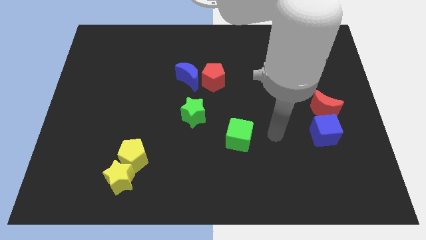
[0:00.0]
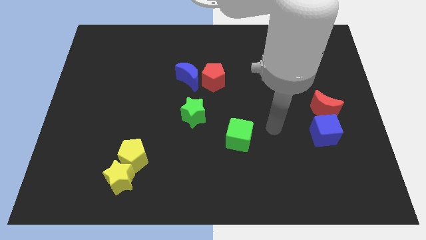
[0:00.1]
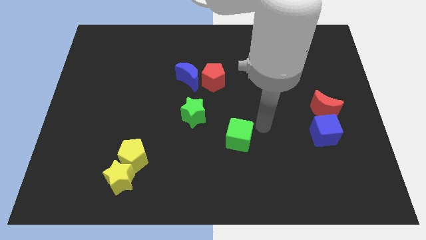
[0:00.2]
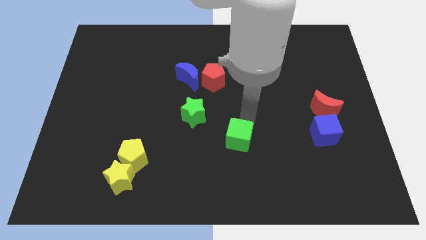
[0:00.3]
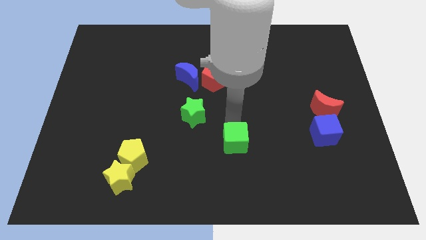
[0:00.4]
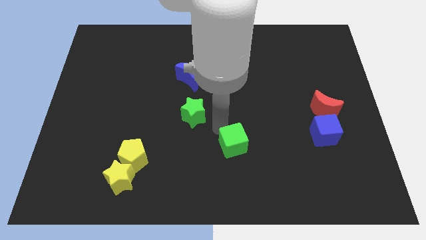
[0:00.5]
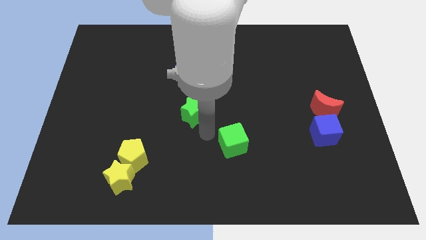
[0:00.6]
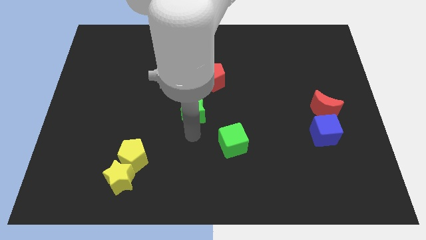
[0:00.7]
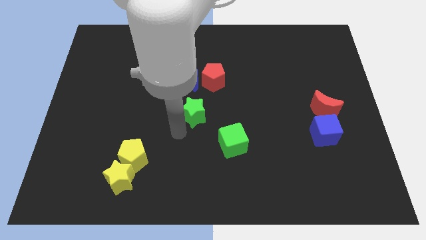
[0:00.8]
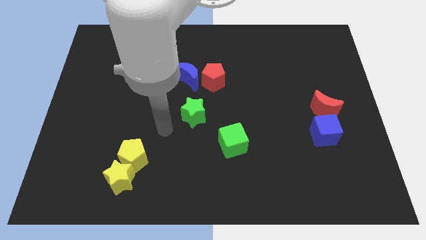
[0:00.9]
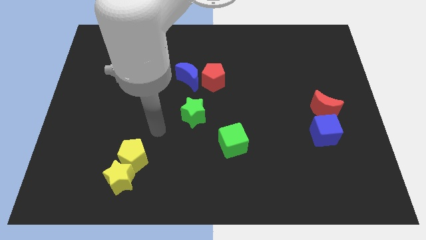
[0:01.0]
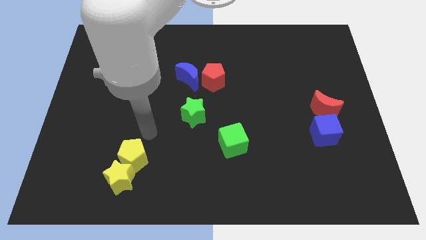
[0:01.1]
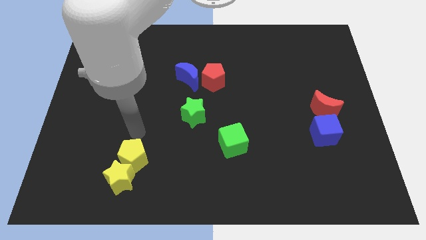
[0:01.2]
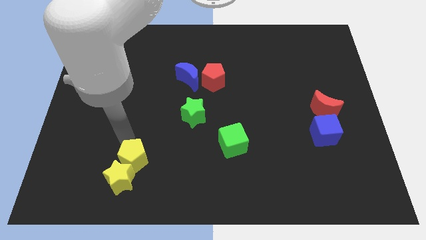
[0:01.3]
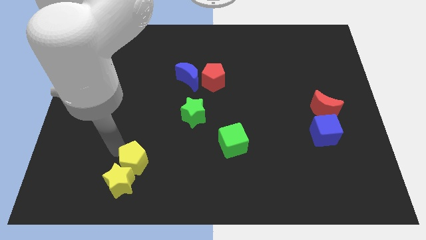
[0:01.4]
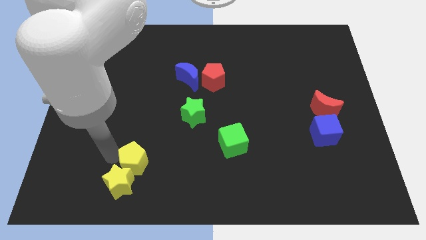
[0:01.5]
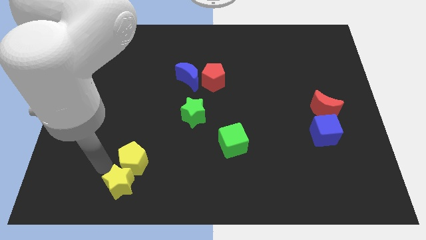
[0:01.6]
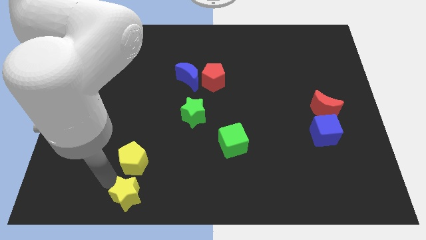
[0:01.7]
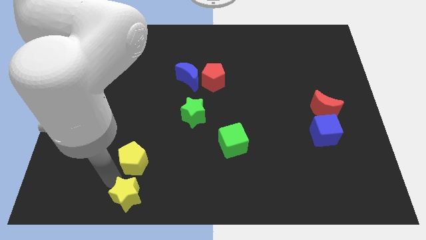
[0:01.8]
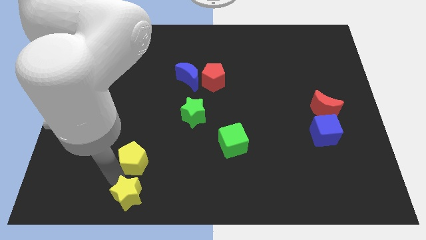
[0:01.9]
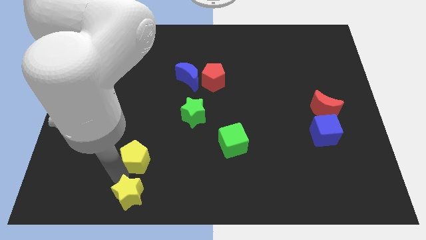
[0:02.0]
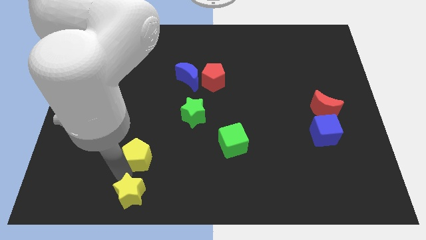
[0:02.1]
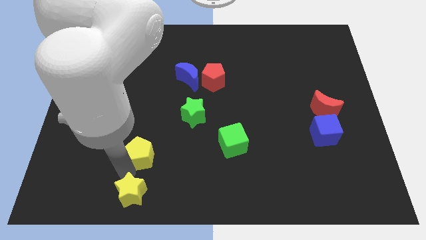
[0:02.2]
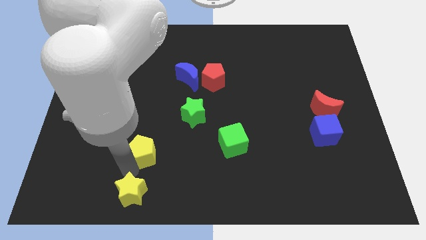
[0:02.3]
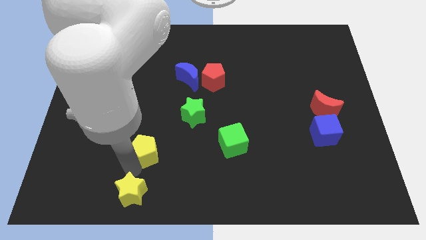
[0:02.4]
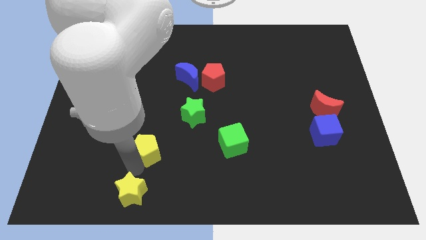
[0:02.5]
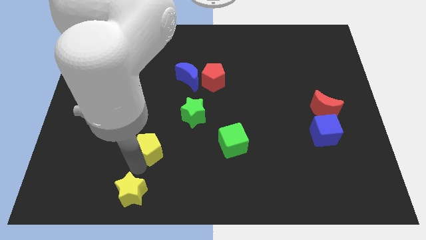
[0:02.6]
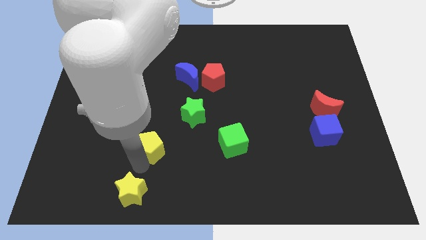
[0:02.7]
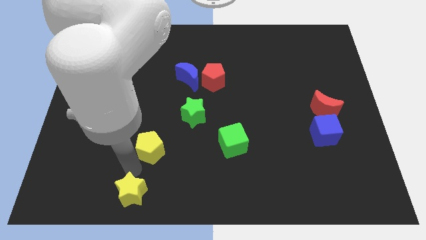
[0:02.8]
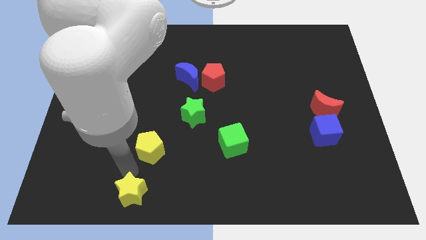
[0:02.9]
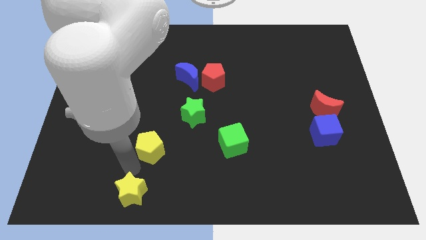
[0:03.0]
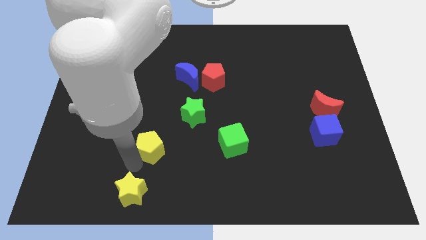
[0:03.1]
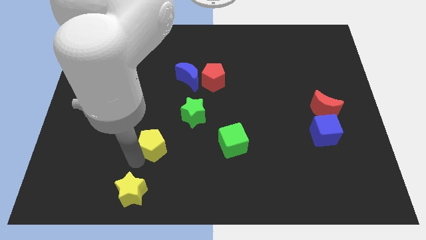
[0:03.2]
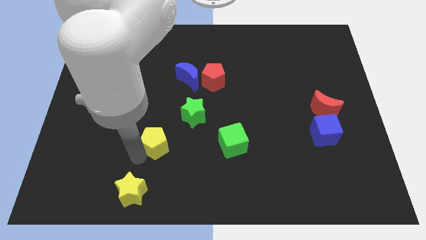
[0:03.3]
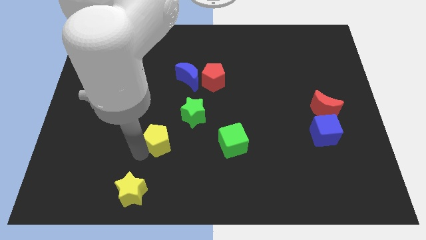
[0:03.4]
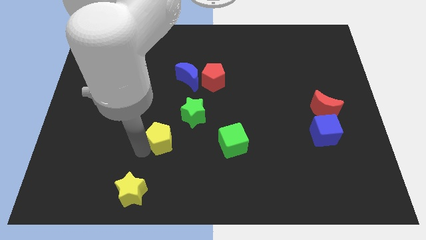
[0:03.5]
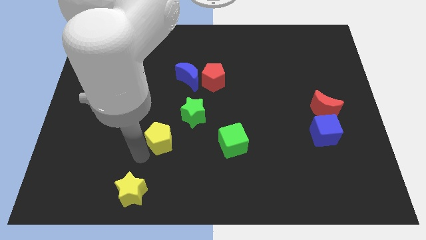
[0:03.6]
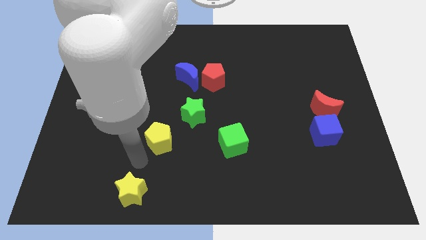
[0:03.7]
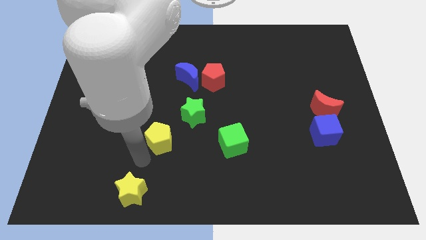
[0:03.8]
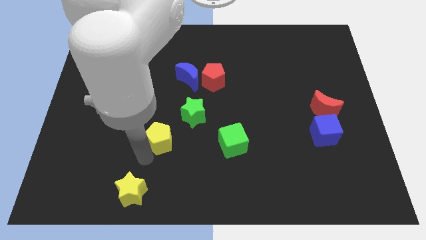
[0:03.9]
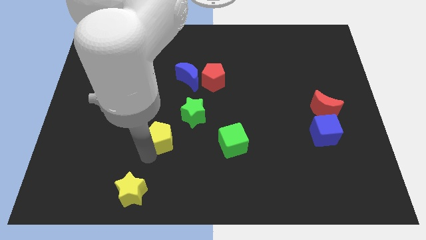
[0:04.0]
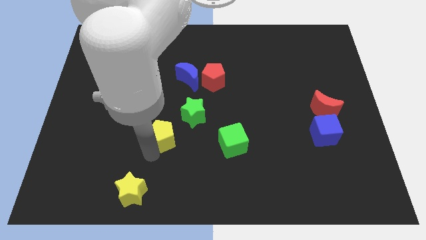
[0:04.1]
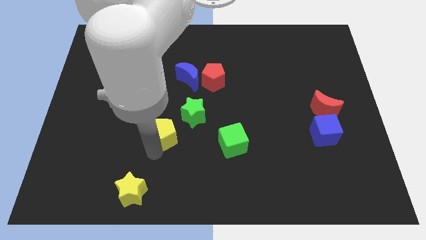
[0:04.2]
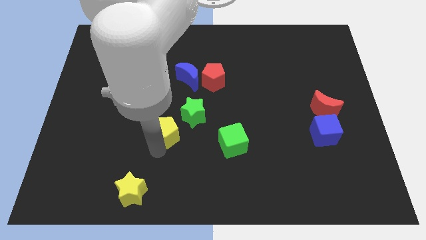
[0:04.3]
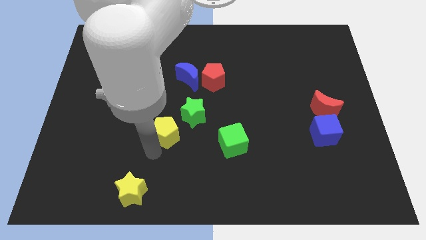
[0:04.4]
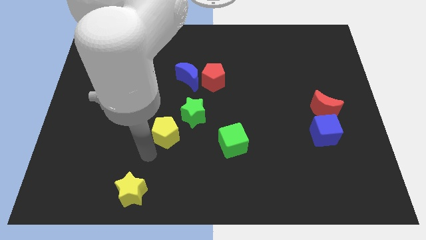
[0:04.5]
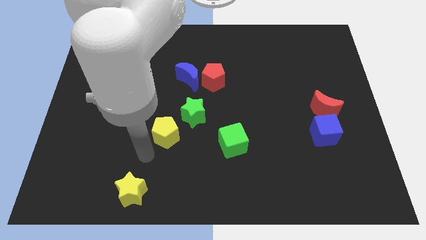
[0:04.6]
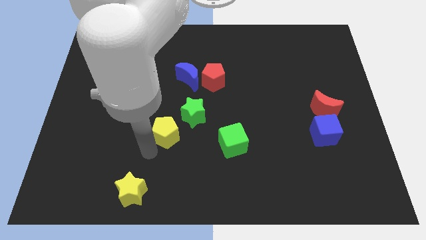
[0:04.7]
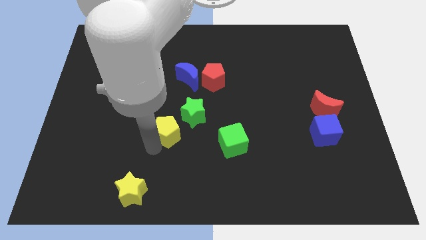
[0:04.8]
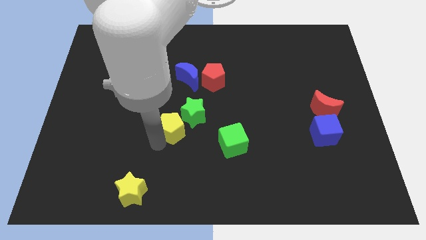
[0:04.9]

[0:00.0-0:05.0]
move the yellow pentagon to the green star

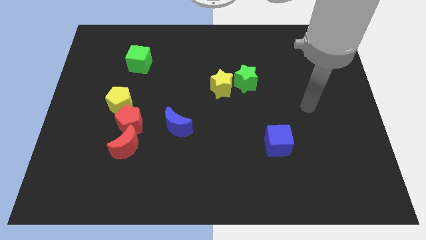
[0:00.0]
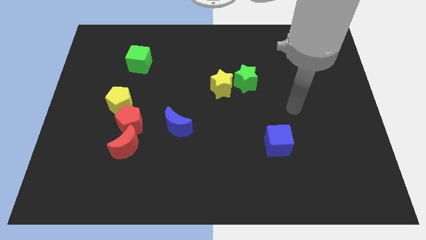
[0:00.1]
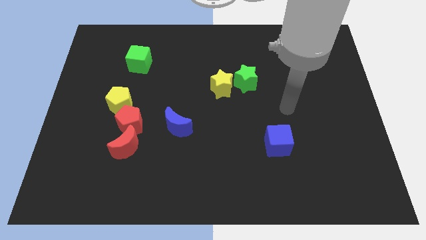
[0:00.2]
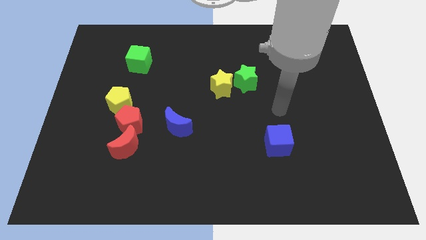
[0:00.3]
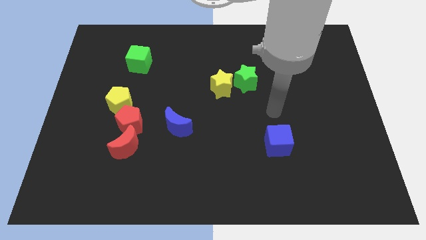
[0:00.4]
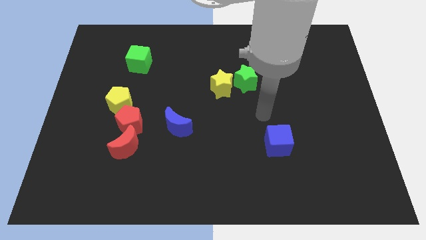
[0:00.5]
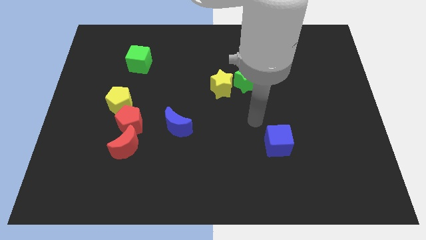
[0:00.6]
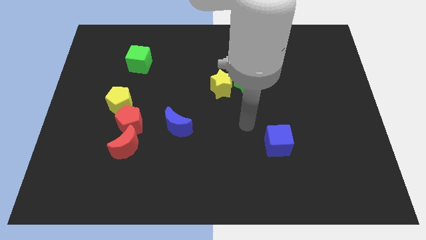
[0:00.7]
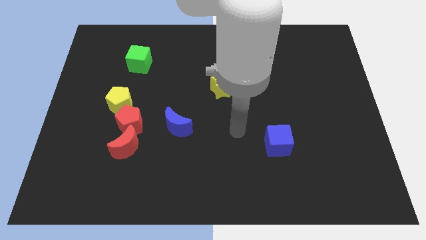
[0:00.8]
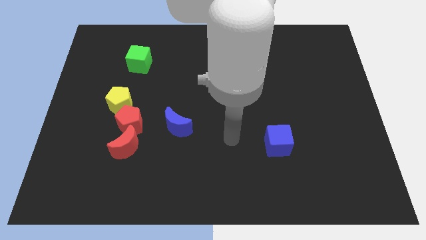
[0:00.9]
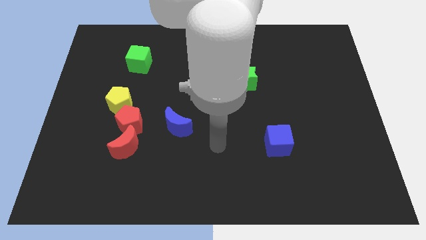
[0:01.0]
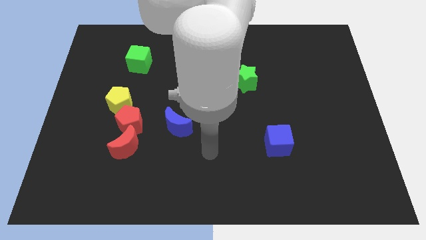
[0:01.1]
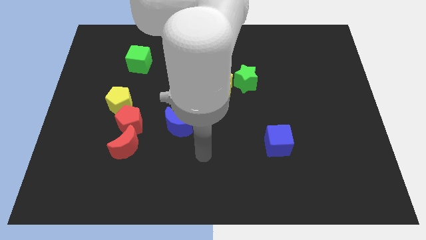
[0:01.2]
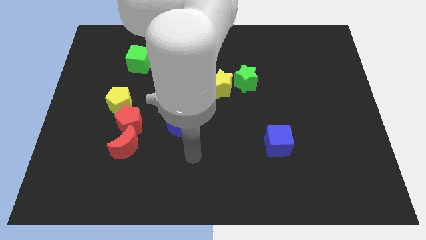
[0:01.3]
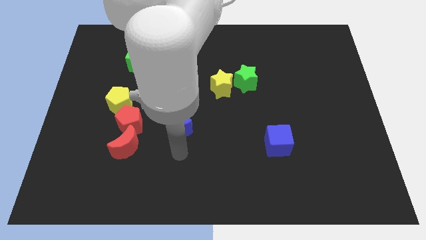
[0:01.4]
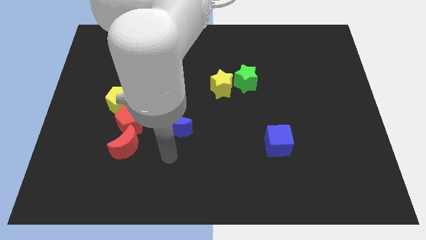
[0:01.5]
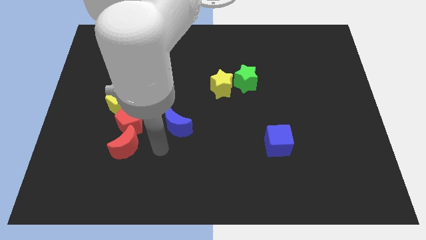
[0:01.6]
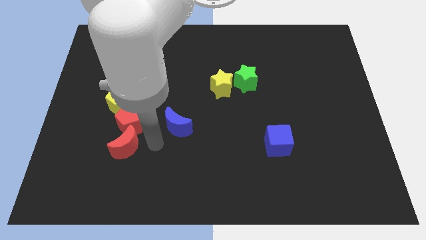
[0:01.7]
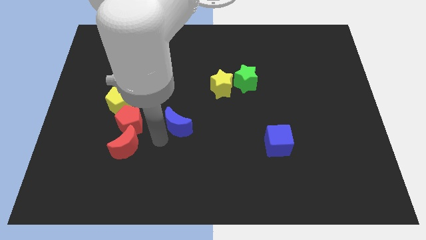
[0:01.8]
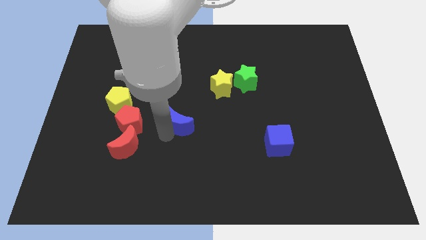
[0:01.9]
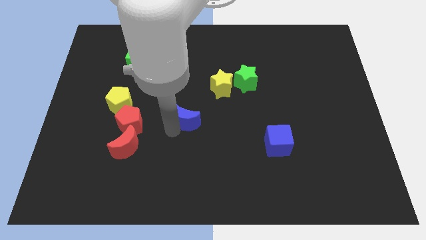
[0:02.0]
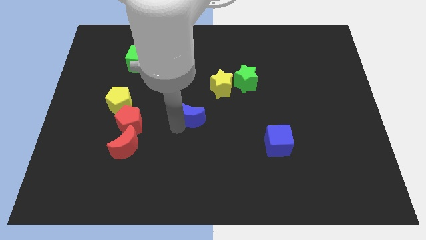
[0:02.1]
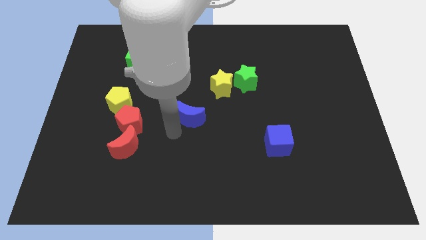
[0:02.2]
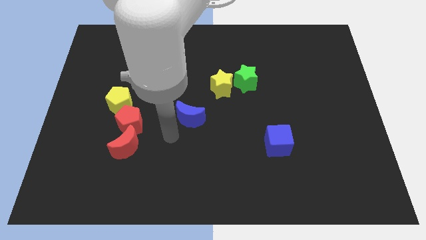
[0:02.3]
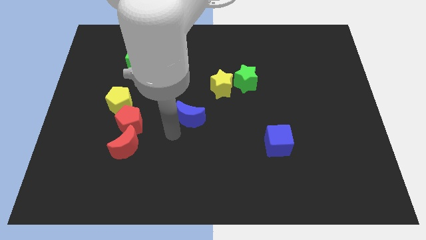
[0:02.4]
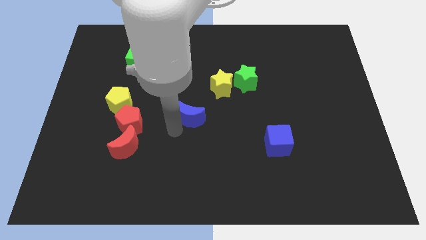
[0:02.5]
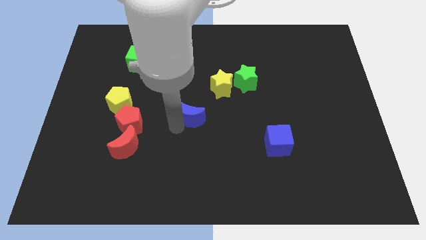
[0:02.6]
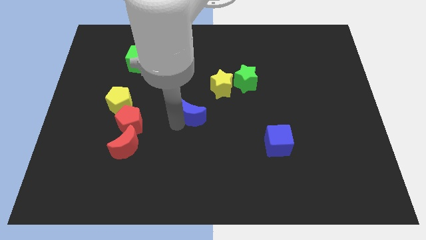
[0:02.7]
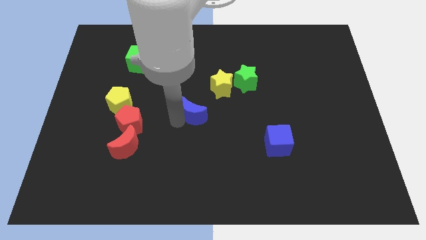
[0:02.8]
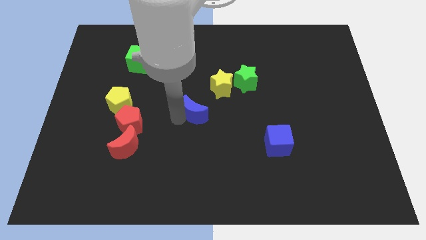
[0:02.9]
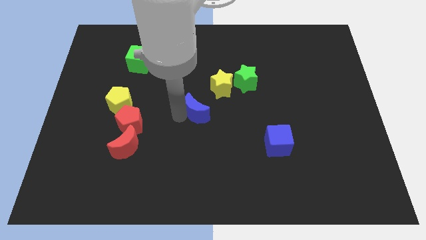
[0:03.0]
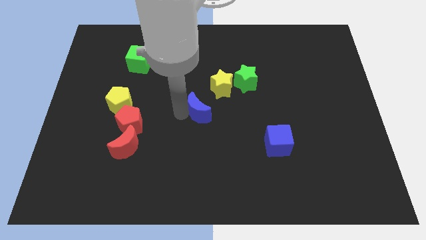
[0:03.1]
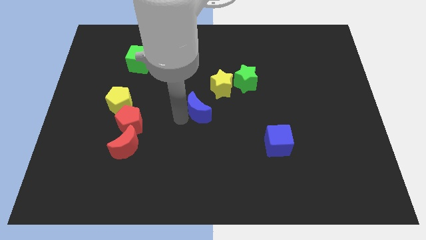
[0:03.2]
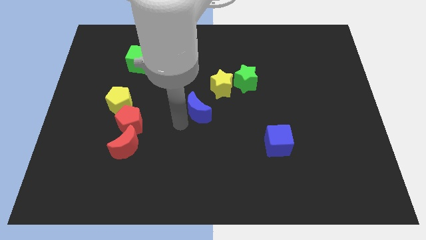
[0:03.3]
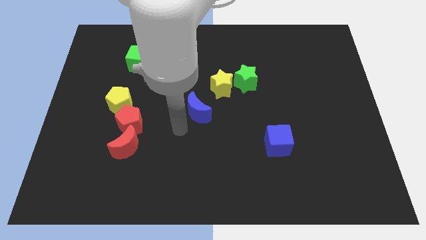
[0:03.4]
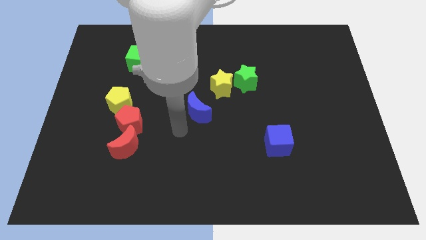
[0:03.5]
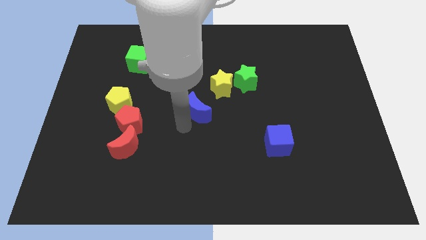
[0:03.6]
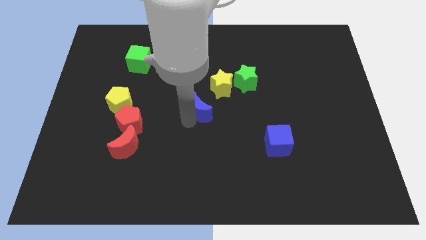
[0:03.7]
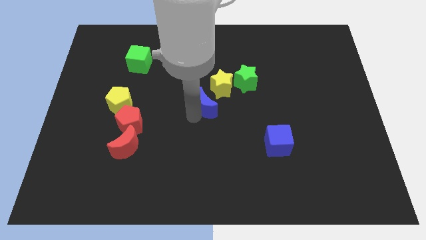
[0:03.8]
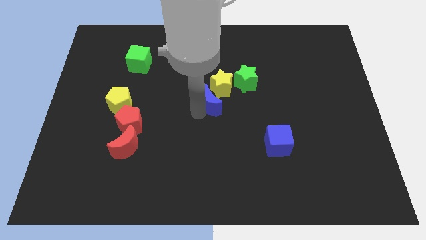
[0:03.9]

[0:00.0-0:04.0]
put the blue moon next to the yellow star
